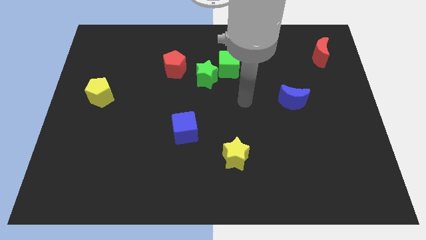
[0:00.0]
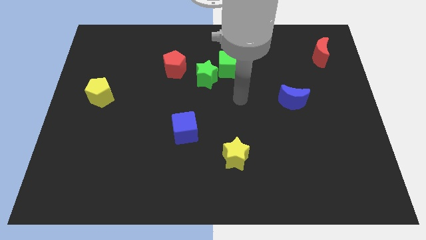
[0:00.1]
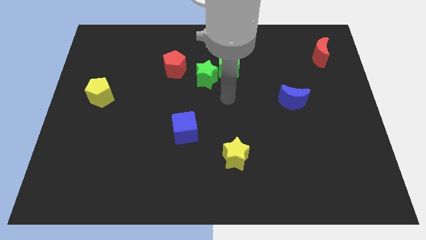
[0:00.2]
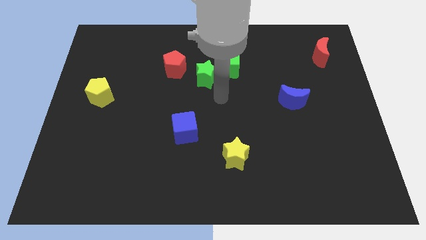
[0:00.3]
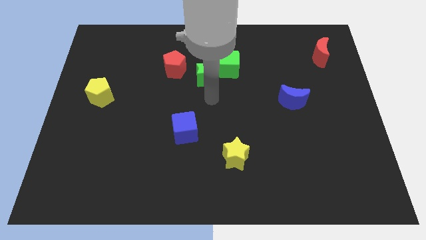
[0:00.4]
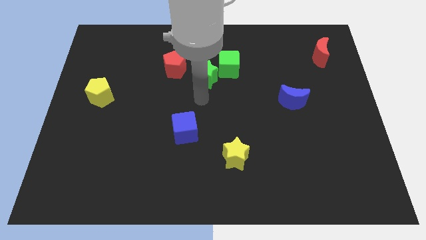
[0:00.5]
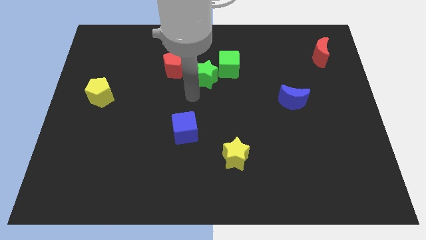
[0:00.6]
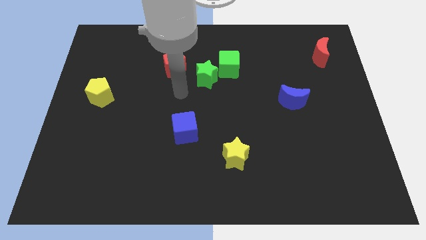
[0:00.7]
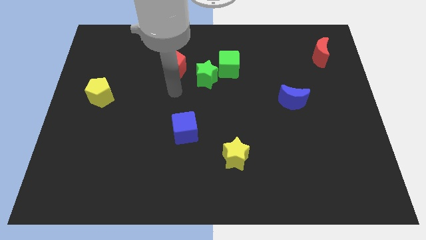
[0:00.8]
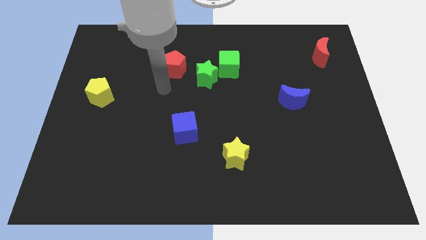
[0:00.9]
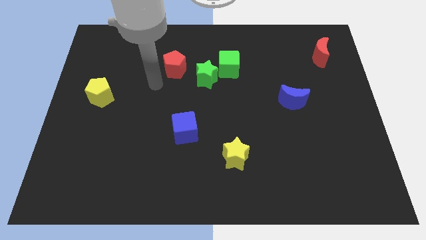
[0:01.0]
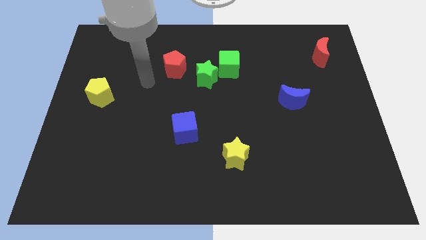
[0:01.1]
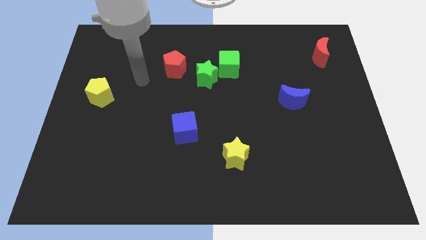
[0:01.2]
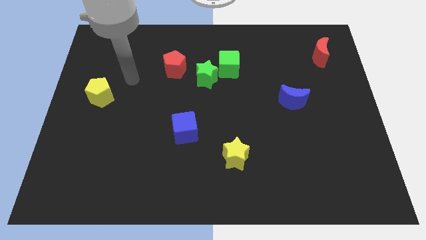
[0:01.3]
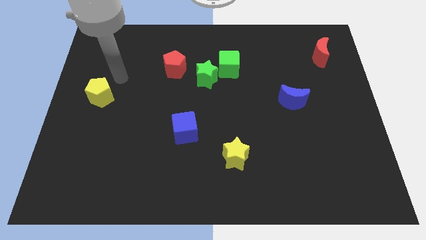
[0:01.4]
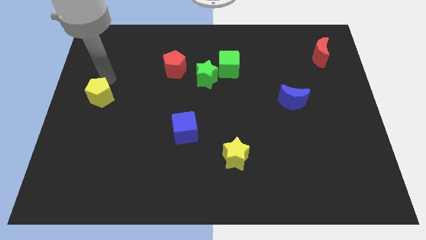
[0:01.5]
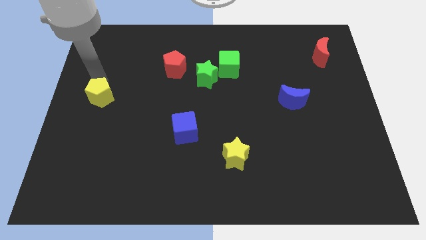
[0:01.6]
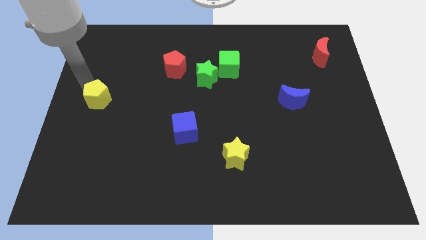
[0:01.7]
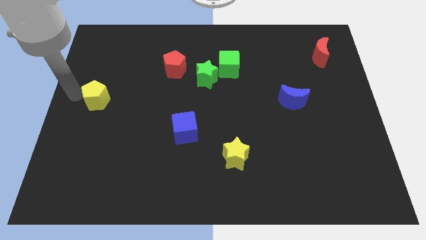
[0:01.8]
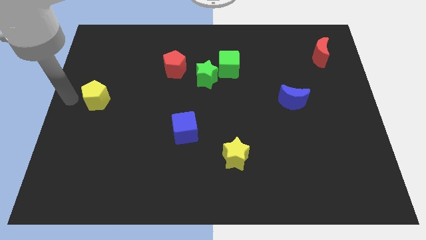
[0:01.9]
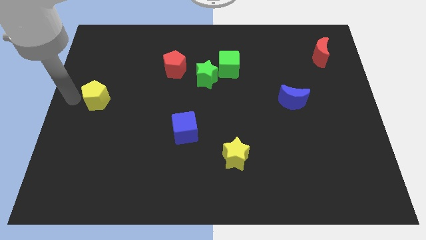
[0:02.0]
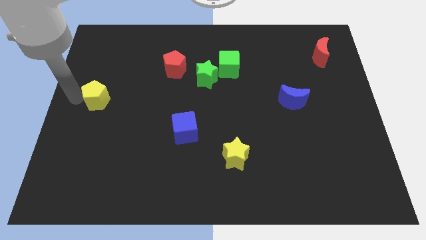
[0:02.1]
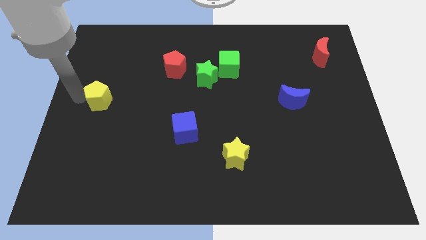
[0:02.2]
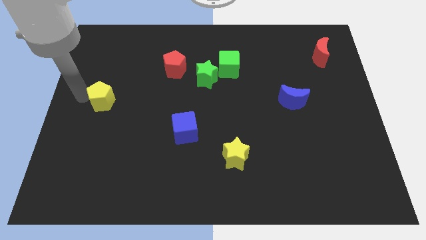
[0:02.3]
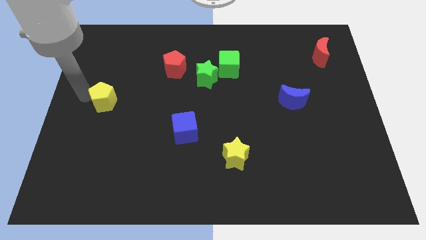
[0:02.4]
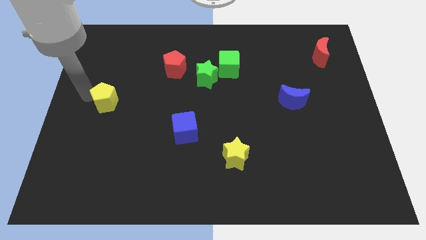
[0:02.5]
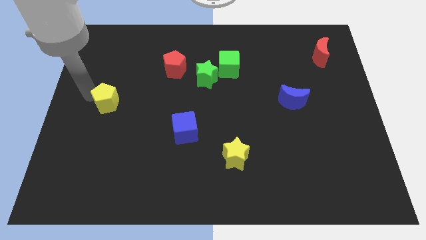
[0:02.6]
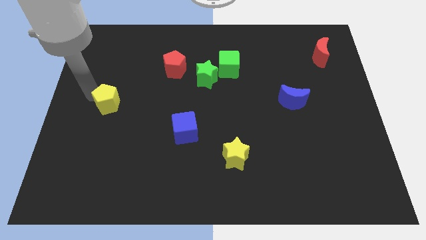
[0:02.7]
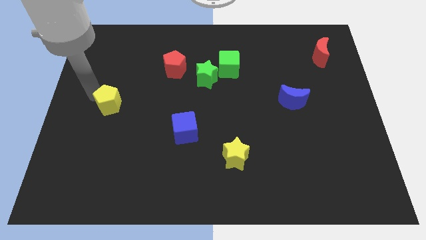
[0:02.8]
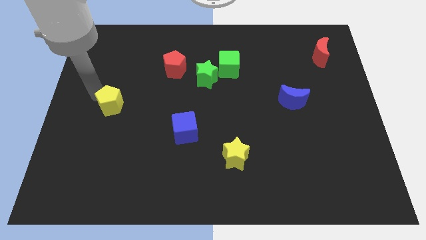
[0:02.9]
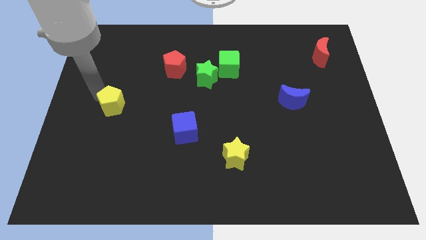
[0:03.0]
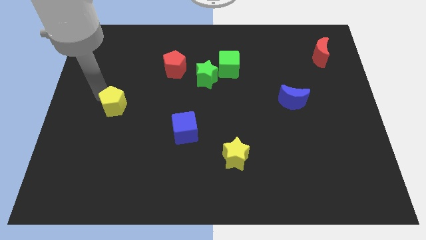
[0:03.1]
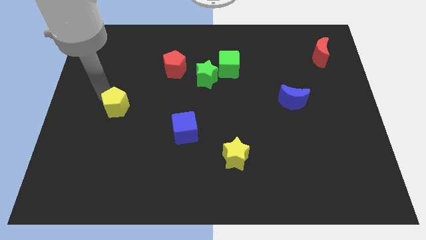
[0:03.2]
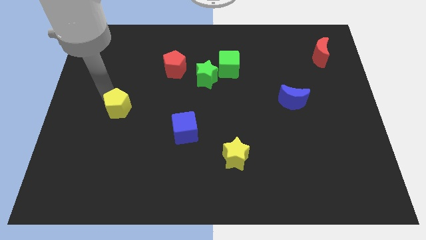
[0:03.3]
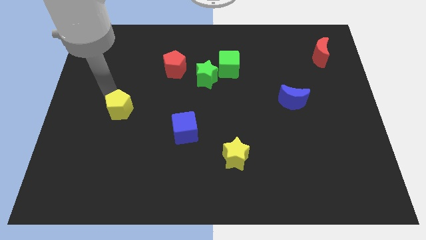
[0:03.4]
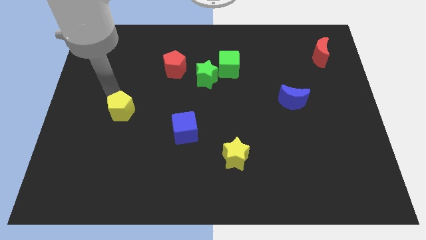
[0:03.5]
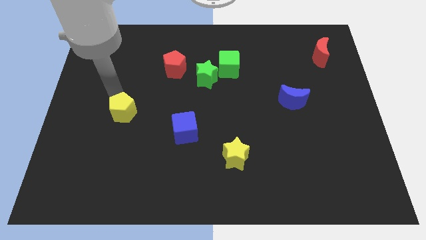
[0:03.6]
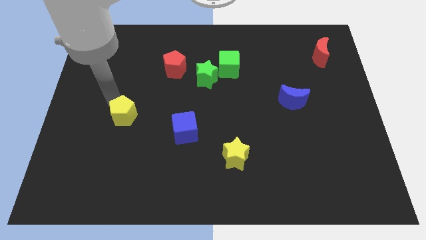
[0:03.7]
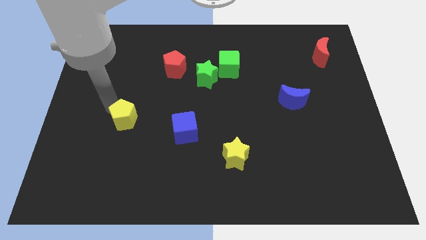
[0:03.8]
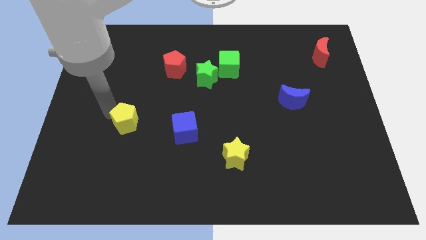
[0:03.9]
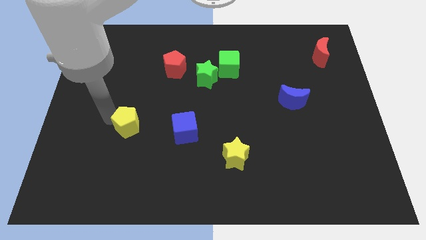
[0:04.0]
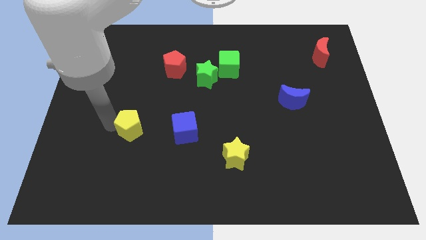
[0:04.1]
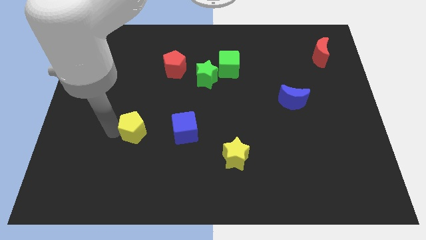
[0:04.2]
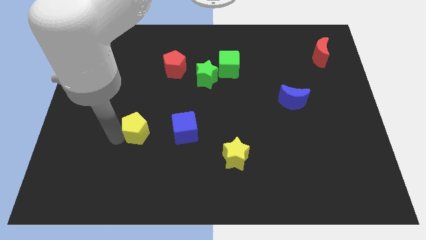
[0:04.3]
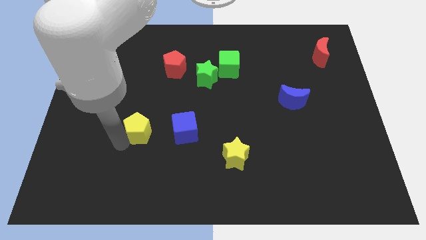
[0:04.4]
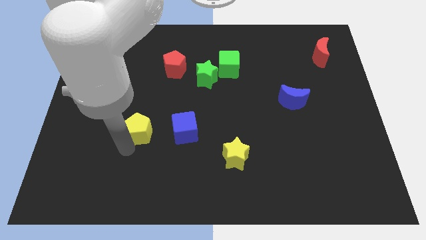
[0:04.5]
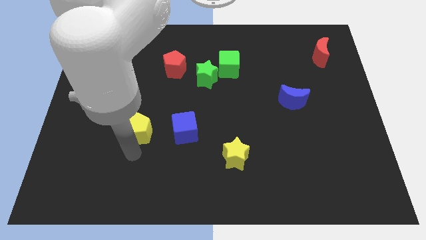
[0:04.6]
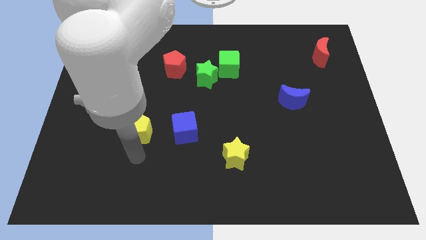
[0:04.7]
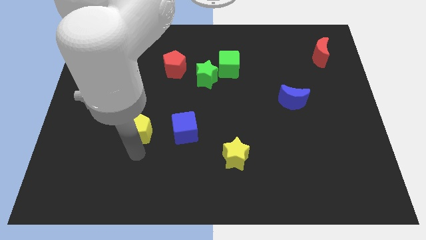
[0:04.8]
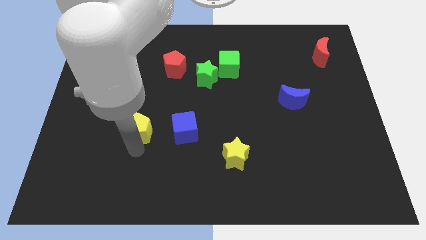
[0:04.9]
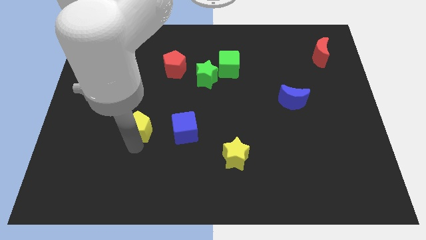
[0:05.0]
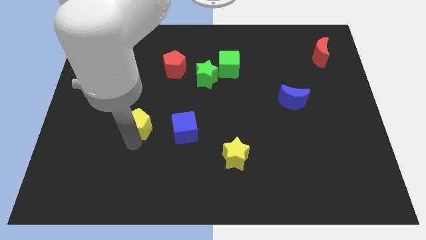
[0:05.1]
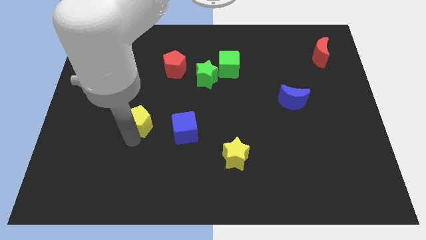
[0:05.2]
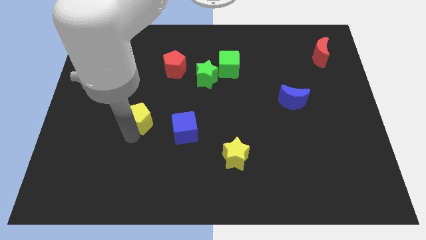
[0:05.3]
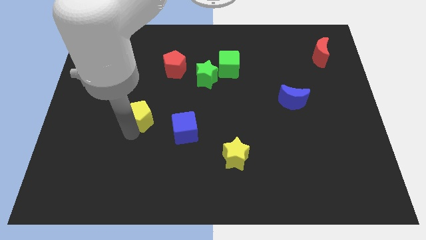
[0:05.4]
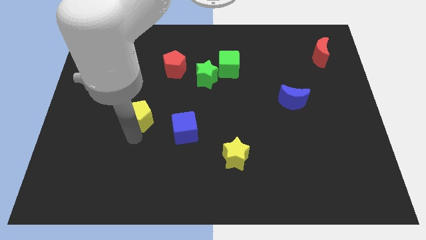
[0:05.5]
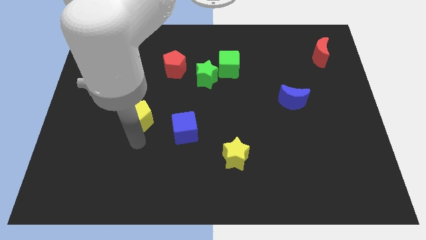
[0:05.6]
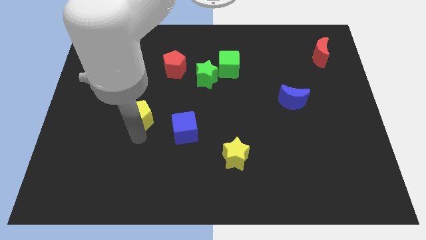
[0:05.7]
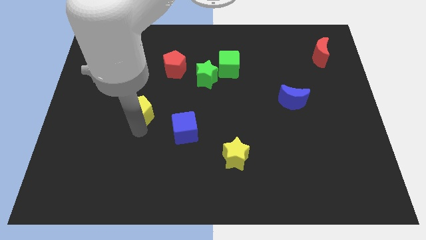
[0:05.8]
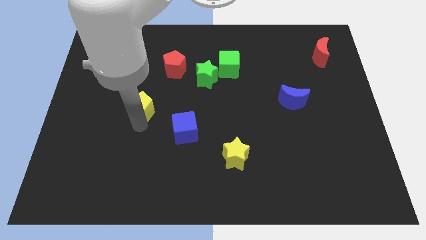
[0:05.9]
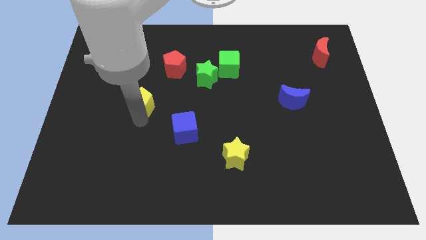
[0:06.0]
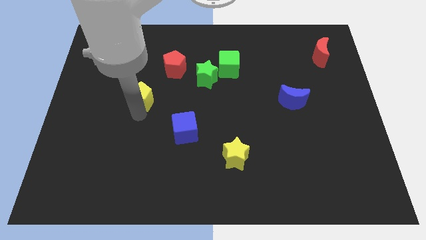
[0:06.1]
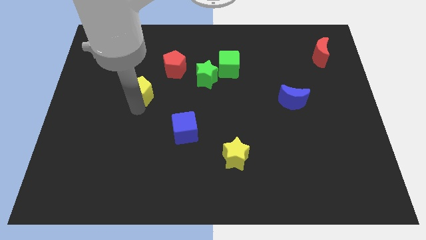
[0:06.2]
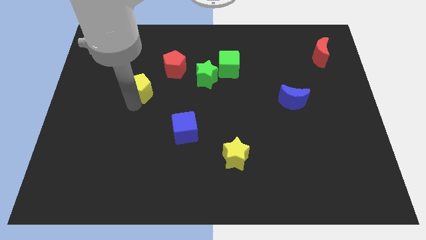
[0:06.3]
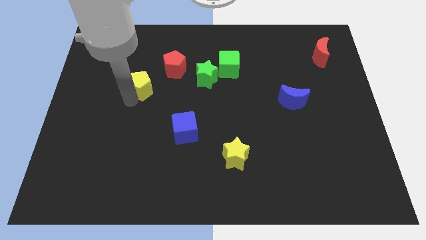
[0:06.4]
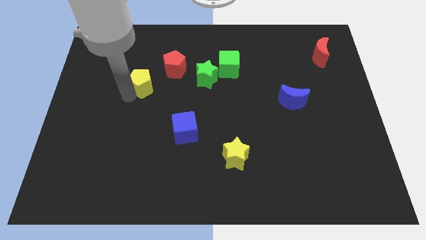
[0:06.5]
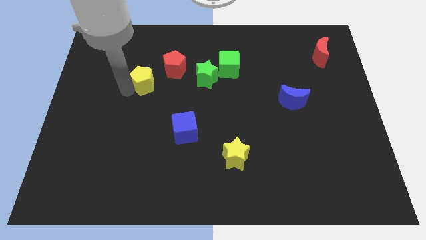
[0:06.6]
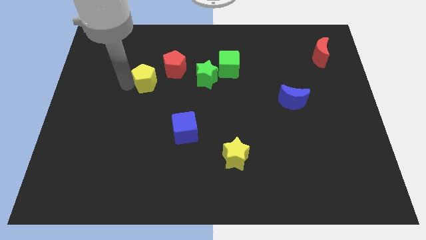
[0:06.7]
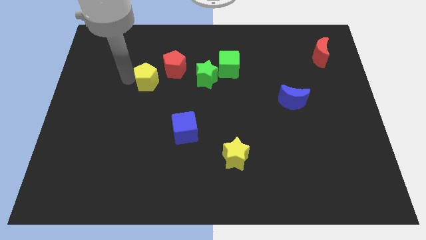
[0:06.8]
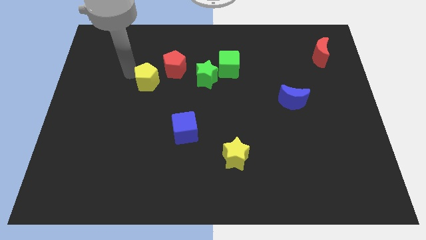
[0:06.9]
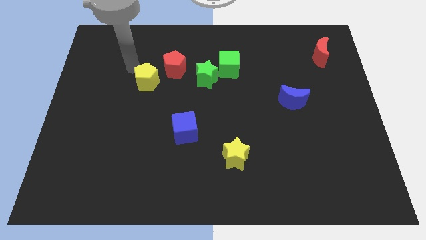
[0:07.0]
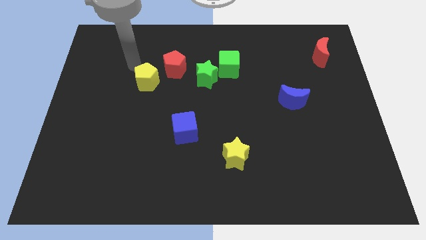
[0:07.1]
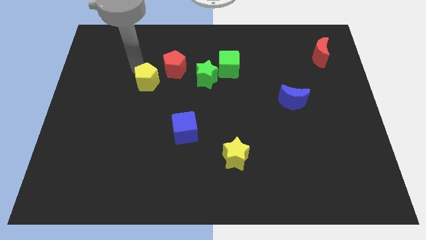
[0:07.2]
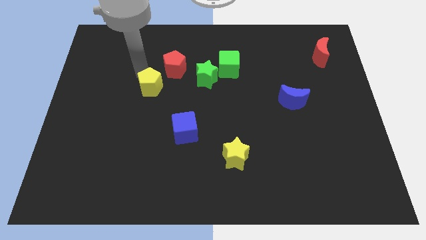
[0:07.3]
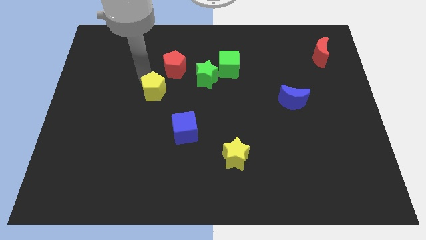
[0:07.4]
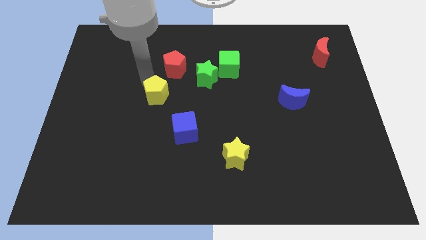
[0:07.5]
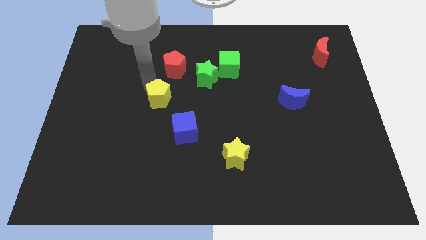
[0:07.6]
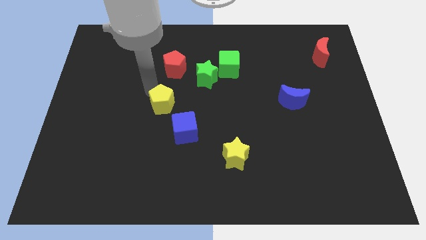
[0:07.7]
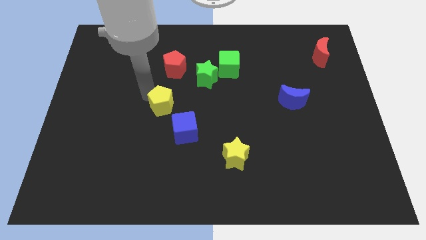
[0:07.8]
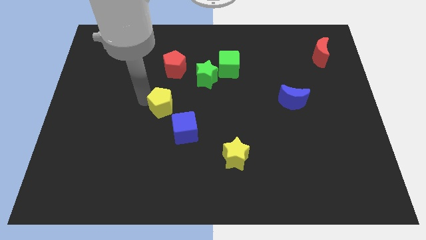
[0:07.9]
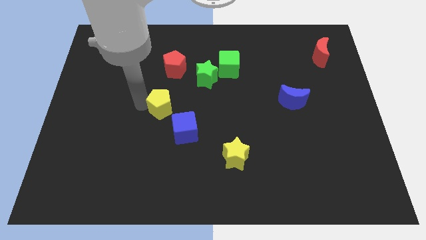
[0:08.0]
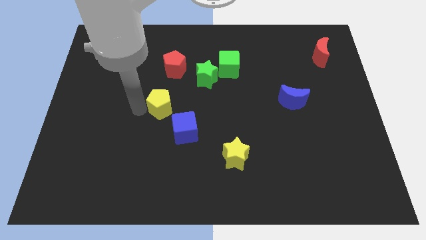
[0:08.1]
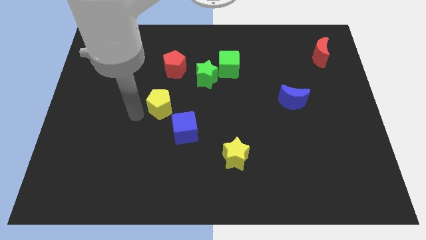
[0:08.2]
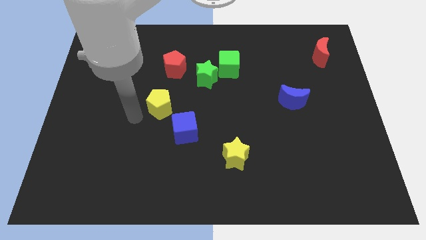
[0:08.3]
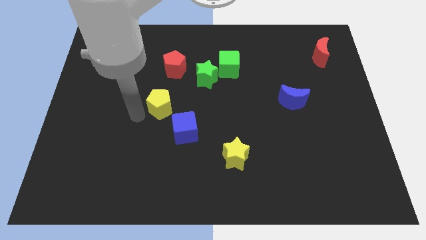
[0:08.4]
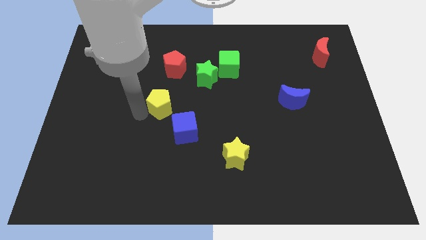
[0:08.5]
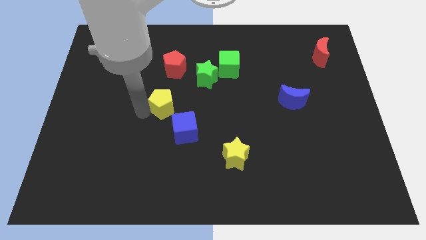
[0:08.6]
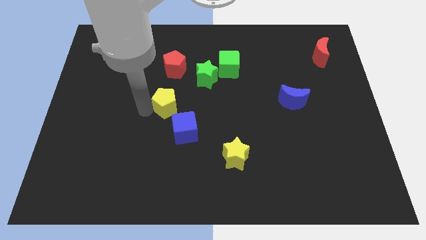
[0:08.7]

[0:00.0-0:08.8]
move the yellow pentagon to the top of the blue cube
